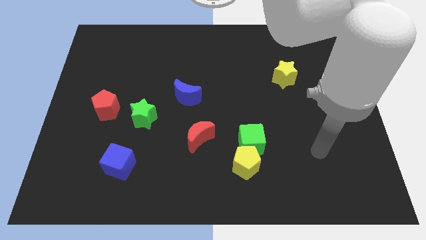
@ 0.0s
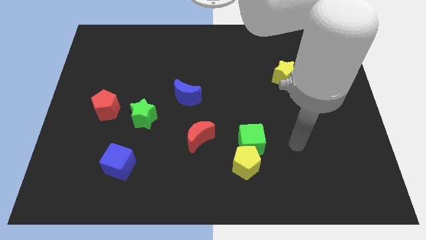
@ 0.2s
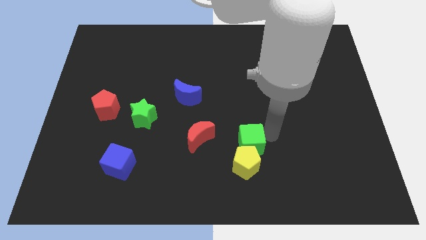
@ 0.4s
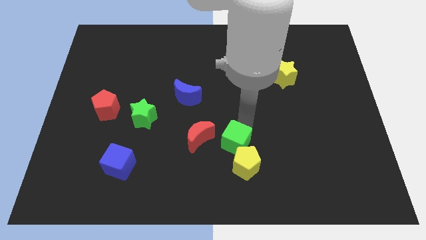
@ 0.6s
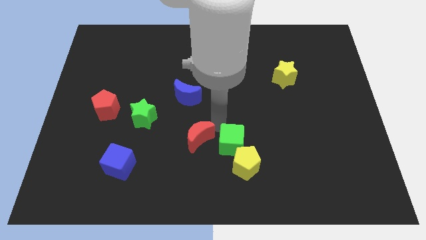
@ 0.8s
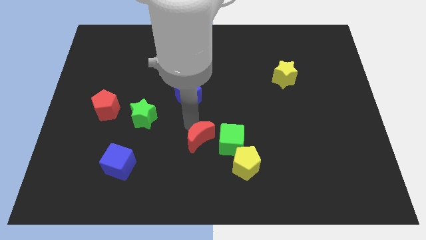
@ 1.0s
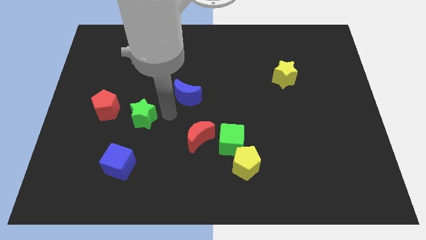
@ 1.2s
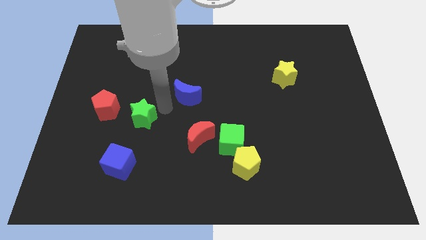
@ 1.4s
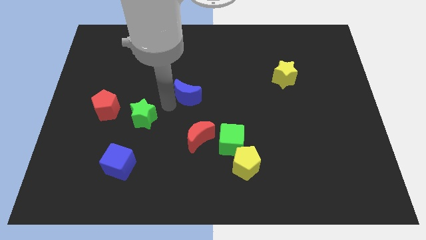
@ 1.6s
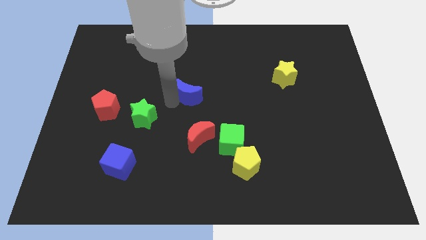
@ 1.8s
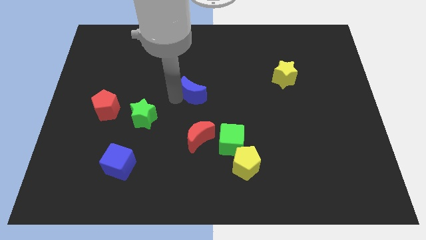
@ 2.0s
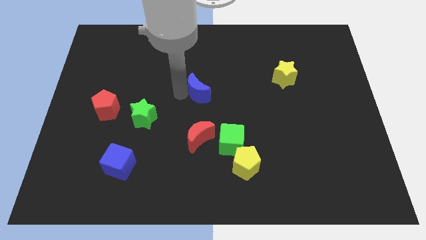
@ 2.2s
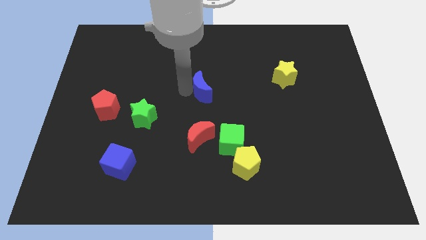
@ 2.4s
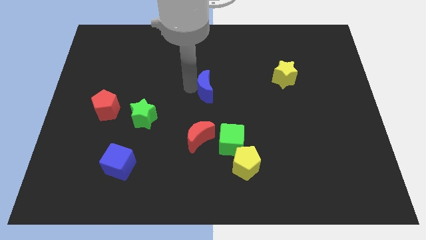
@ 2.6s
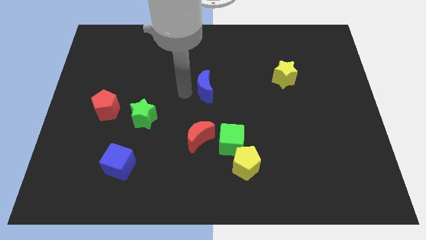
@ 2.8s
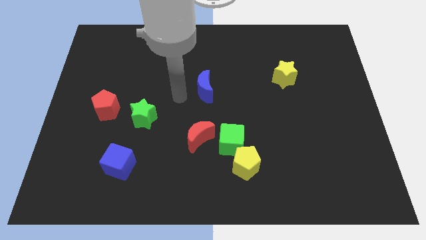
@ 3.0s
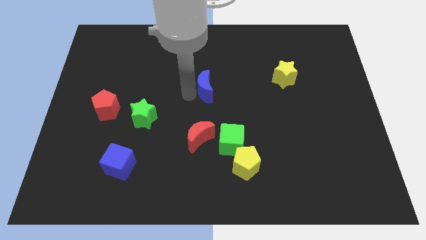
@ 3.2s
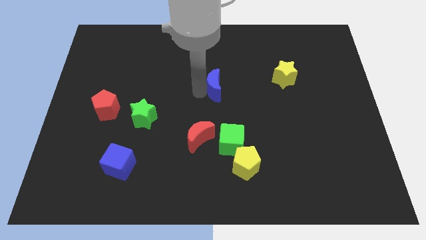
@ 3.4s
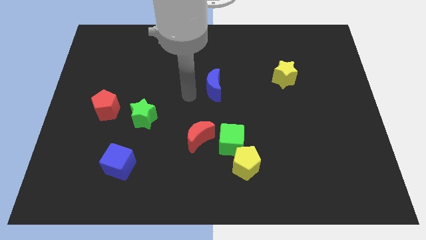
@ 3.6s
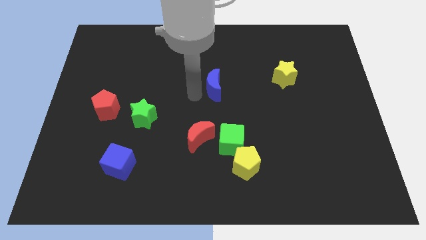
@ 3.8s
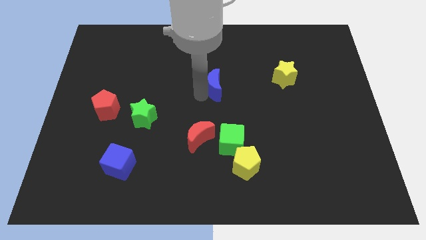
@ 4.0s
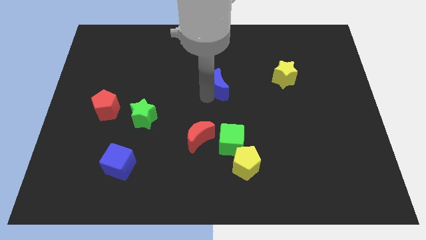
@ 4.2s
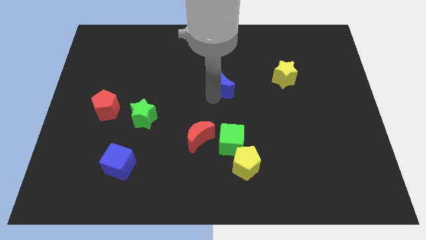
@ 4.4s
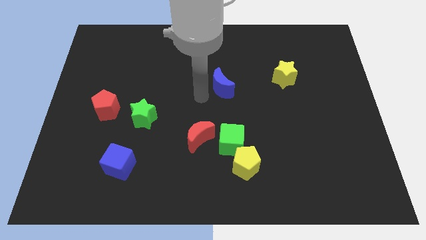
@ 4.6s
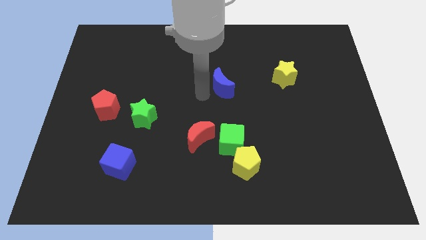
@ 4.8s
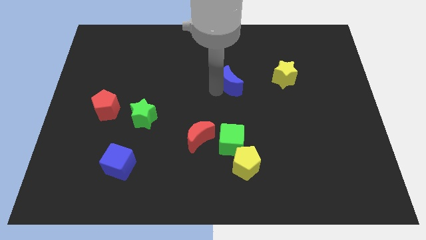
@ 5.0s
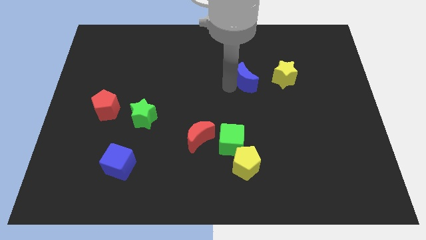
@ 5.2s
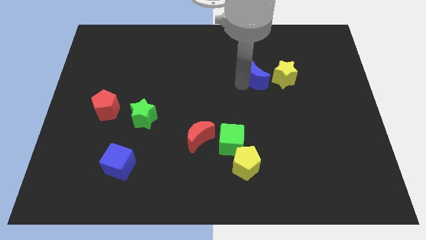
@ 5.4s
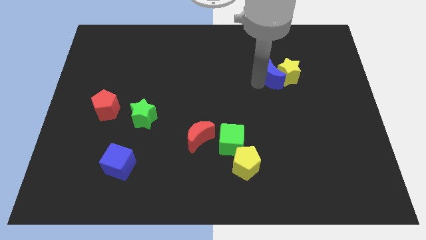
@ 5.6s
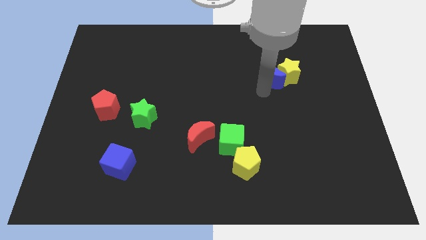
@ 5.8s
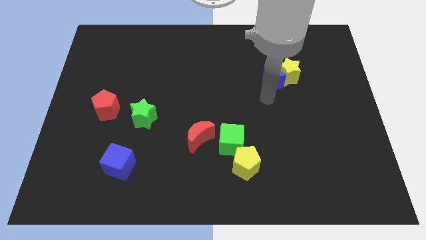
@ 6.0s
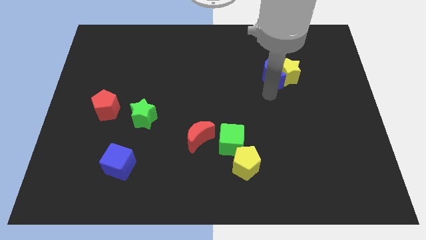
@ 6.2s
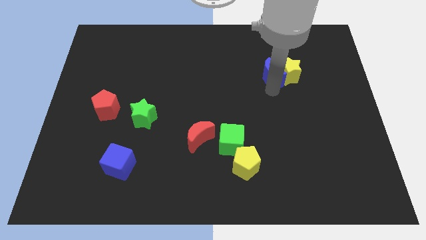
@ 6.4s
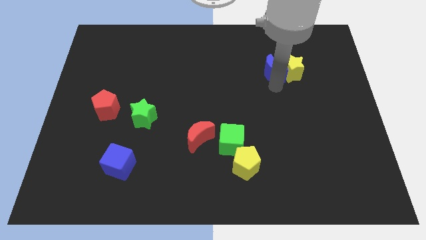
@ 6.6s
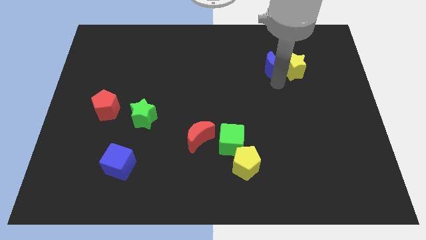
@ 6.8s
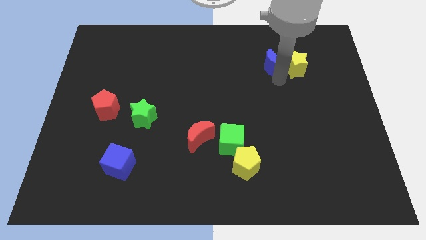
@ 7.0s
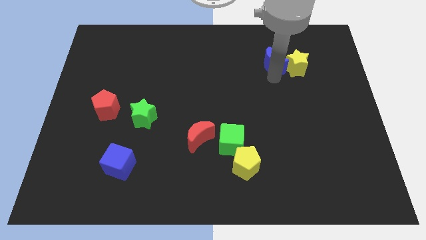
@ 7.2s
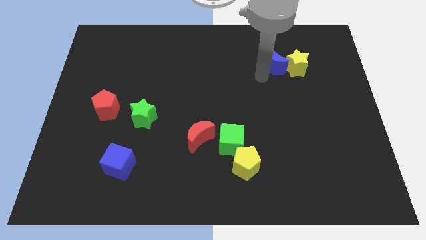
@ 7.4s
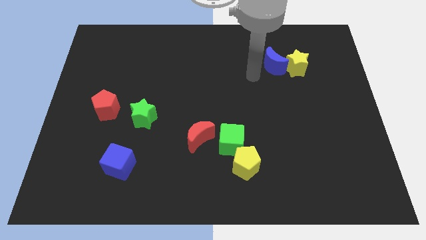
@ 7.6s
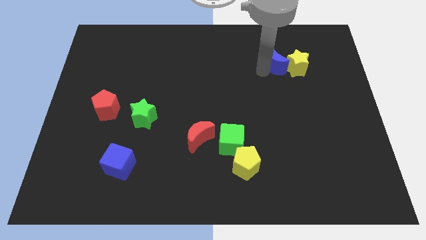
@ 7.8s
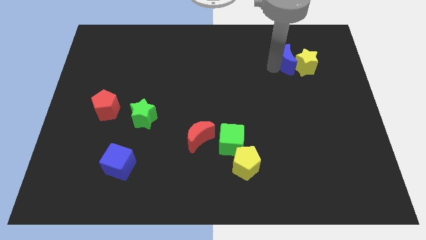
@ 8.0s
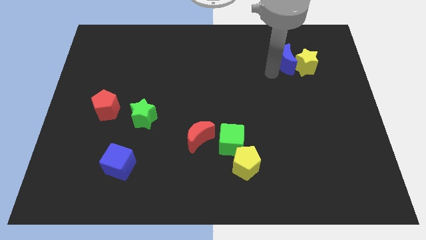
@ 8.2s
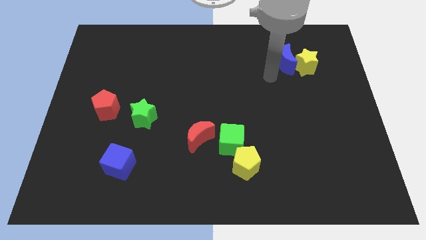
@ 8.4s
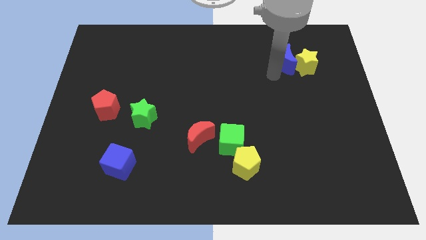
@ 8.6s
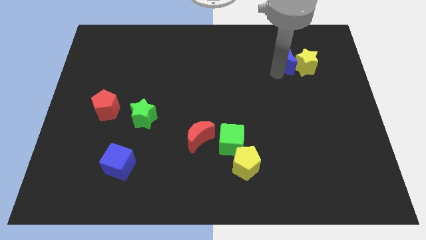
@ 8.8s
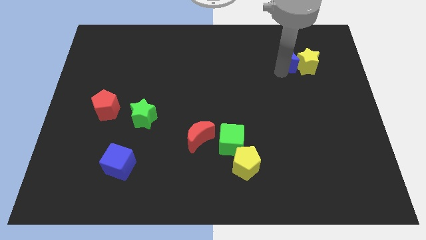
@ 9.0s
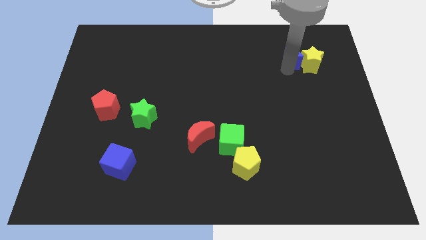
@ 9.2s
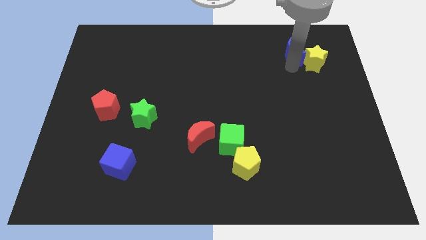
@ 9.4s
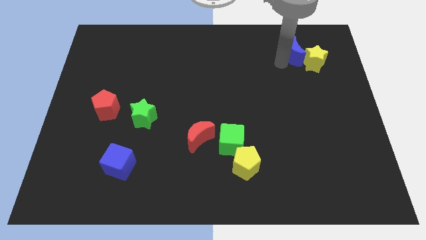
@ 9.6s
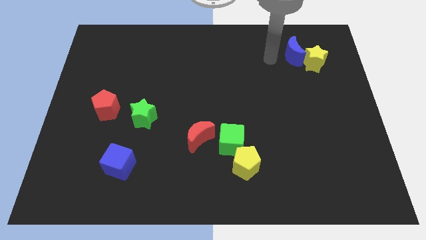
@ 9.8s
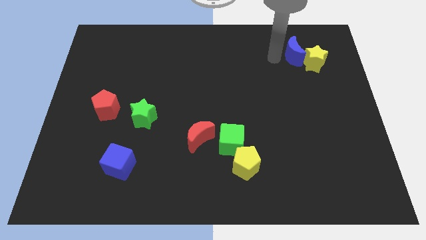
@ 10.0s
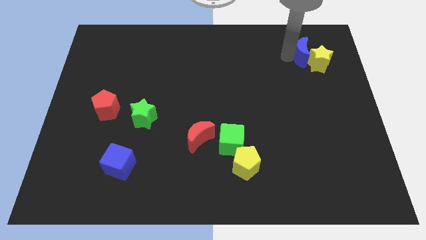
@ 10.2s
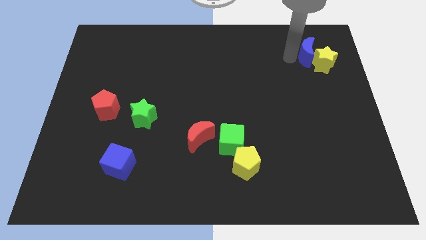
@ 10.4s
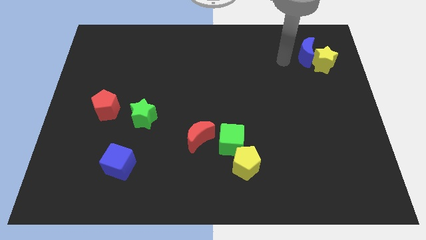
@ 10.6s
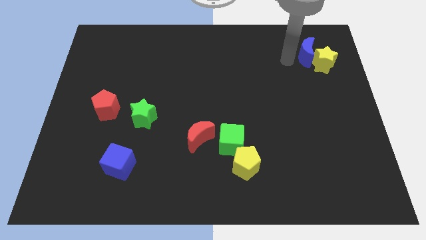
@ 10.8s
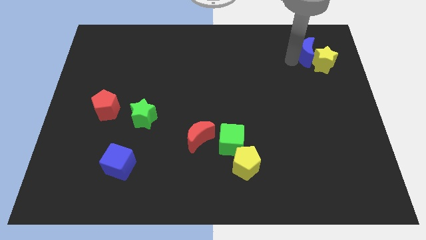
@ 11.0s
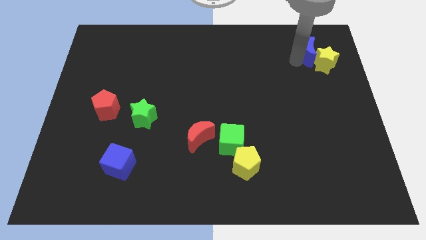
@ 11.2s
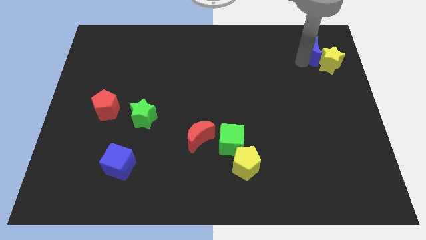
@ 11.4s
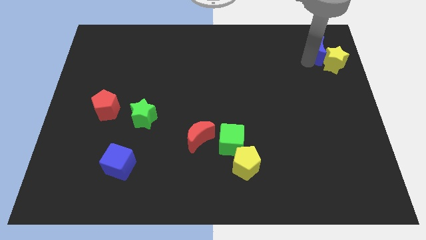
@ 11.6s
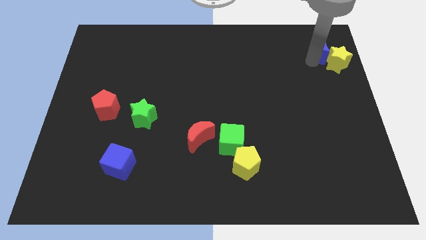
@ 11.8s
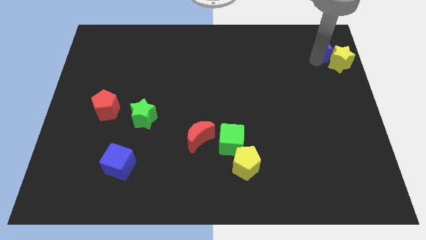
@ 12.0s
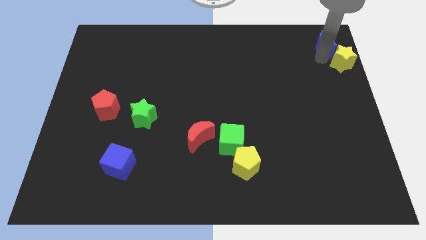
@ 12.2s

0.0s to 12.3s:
move the blue moon to the top right
